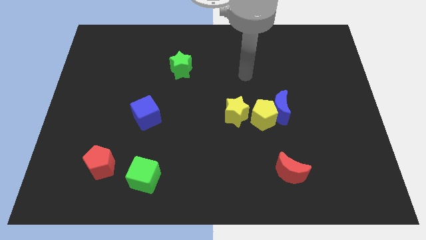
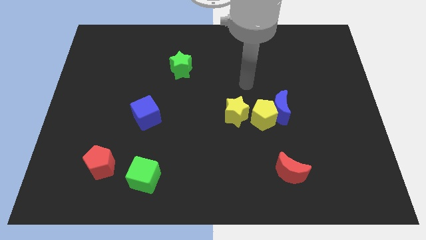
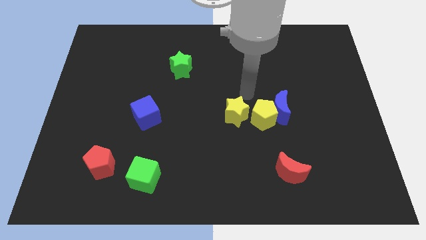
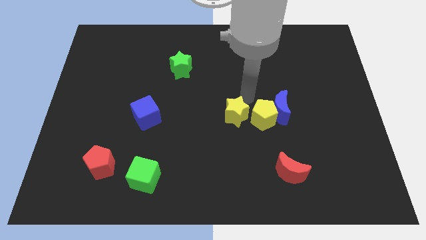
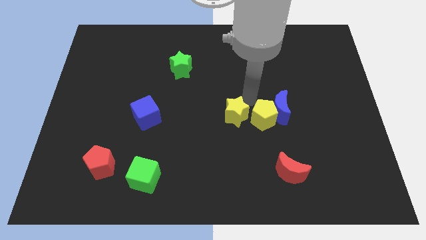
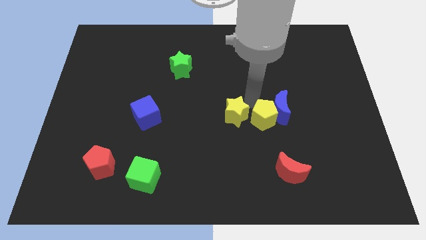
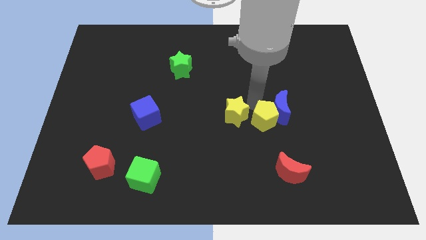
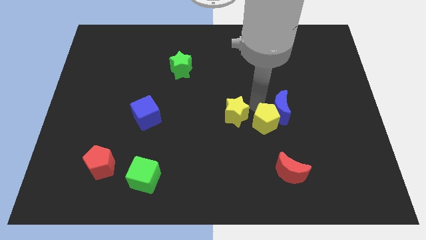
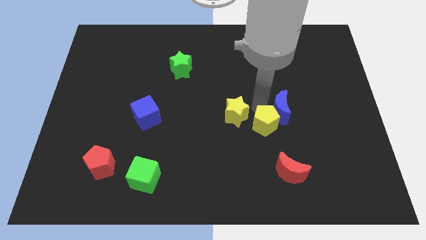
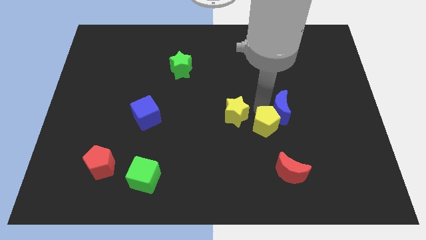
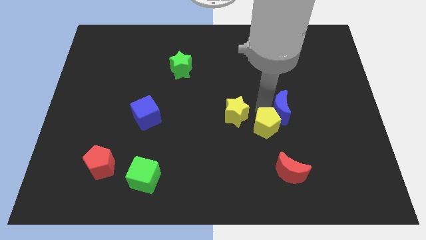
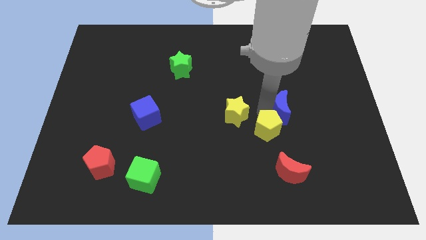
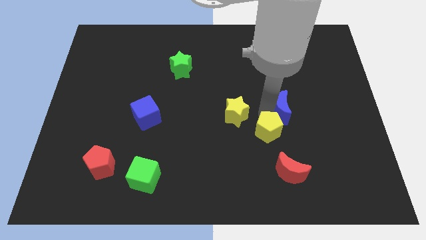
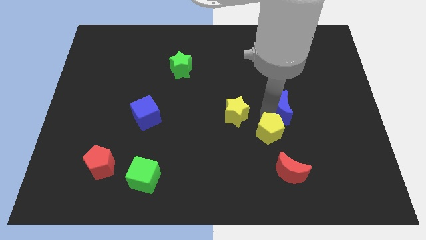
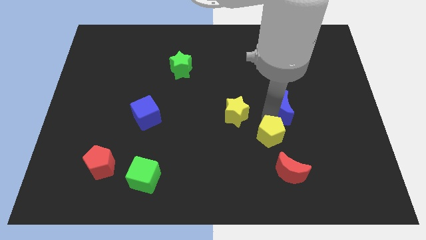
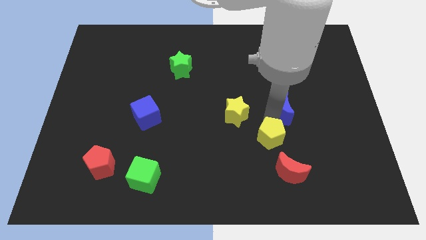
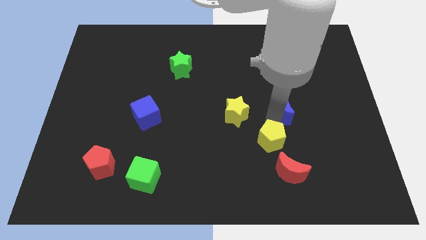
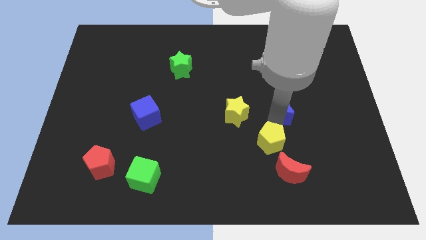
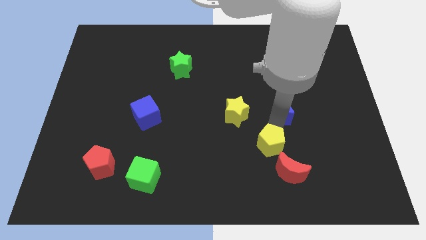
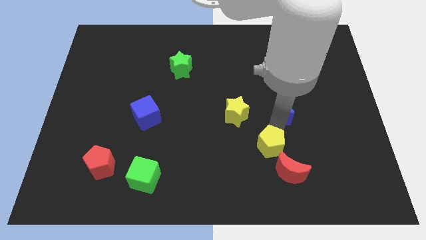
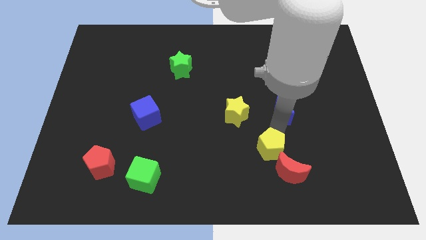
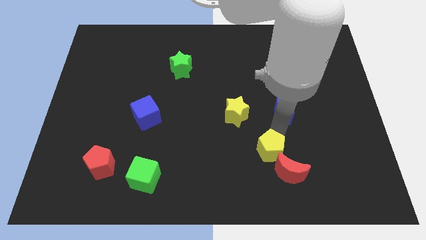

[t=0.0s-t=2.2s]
move the yellow pentagon away from the blue moon and yellow star

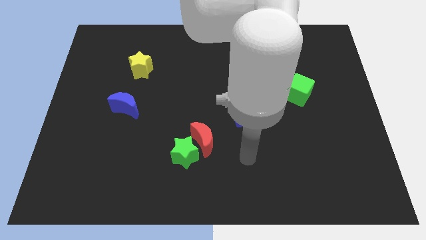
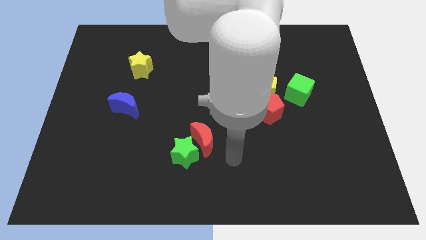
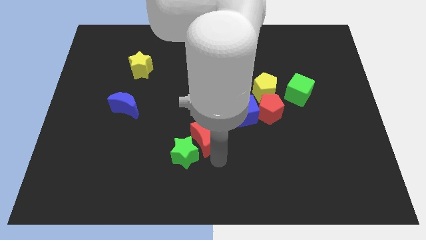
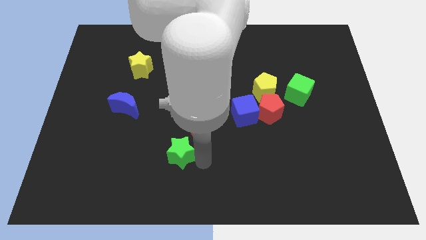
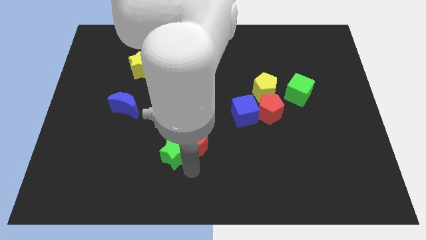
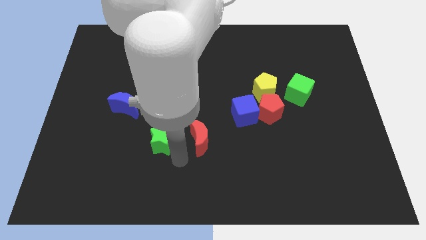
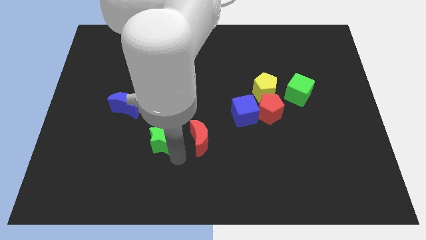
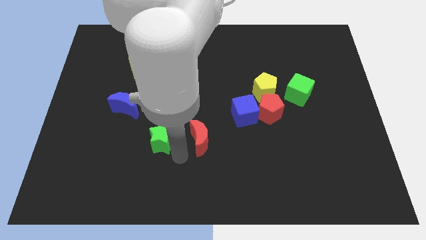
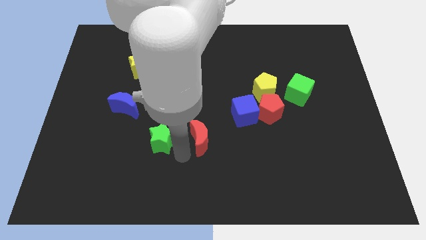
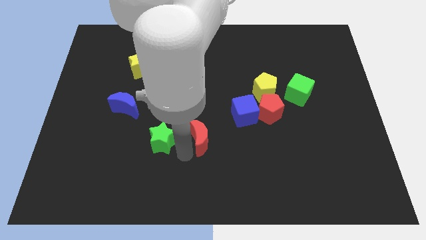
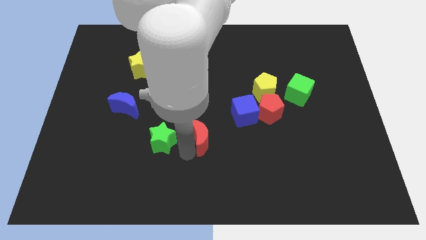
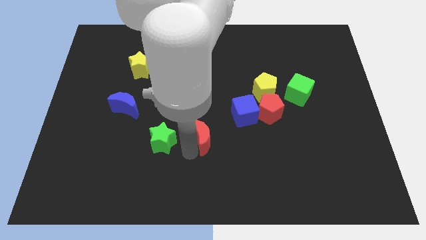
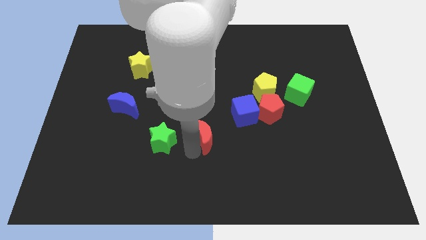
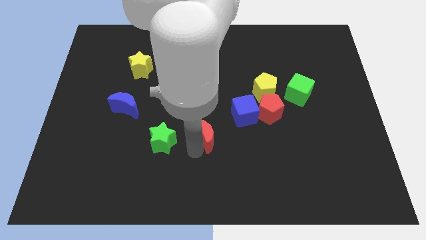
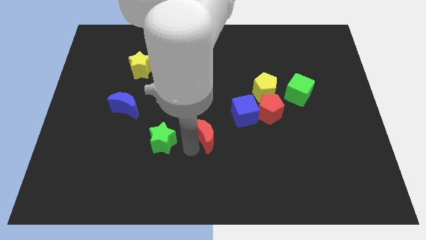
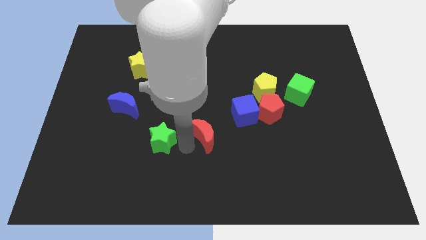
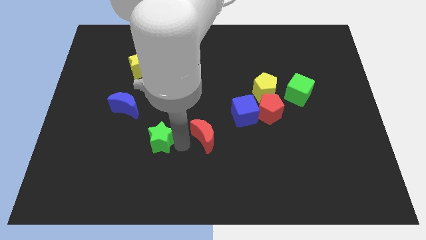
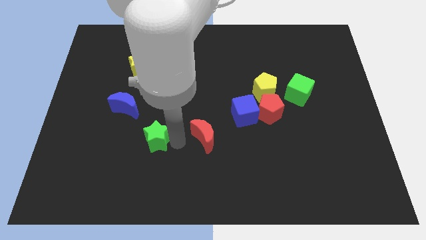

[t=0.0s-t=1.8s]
separate the red moon from the green star

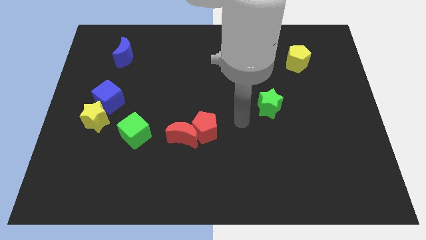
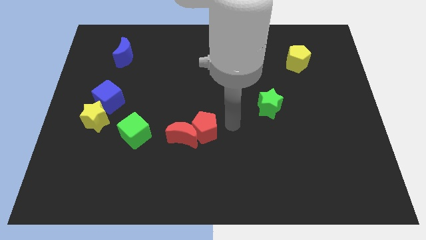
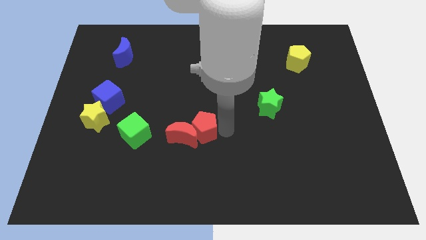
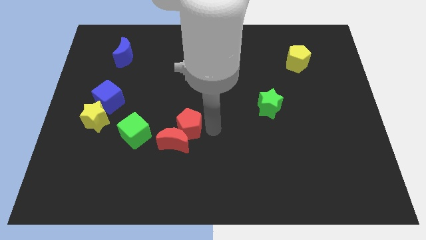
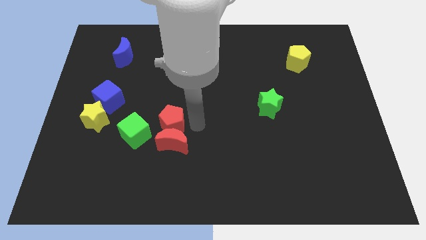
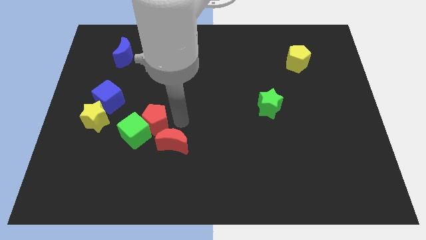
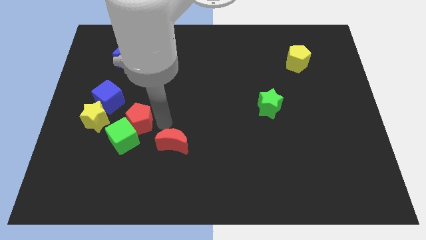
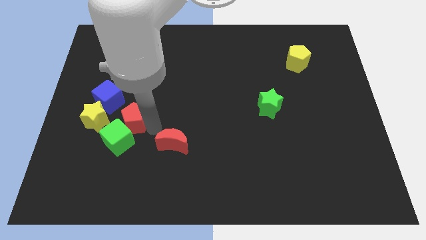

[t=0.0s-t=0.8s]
separate the red moon from the red pentagon

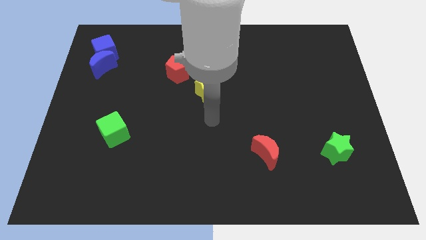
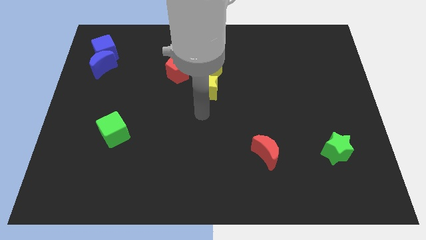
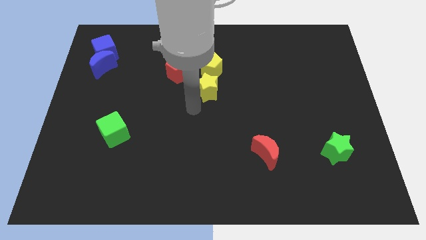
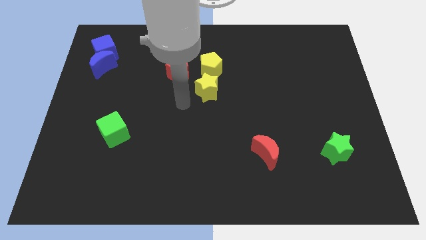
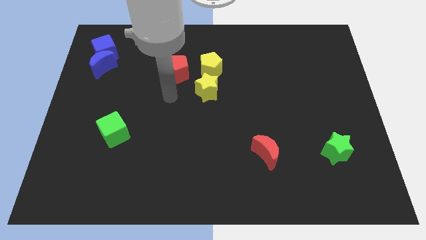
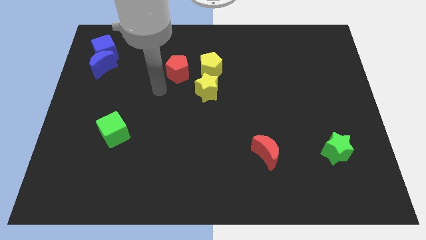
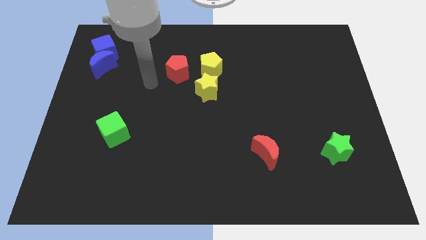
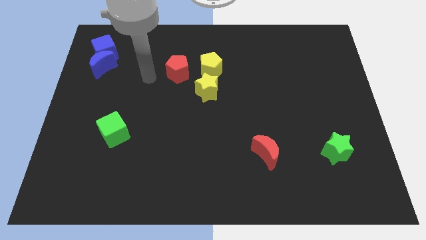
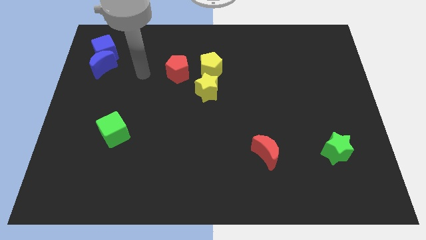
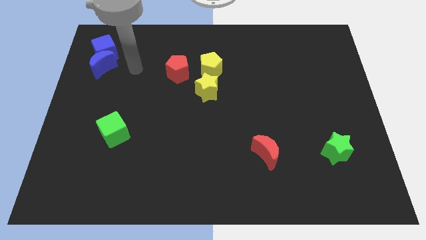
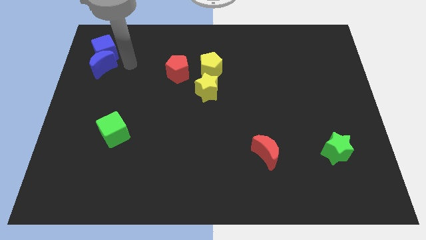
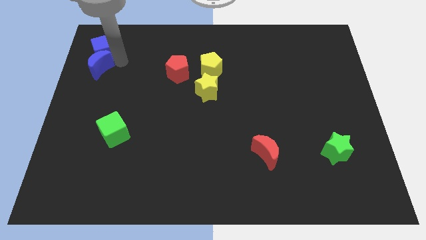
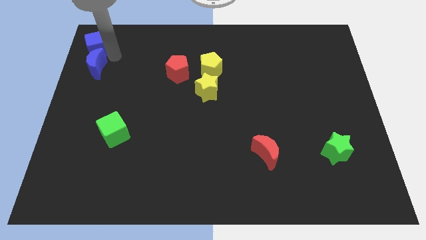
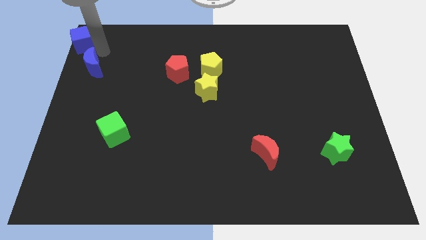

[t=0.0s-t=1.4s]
separate the blue moon from the blue cube

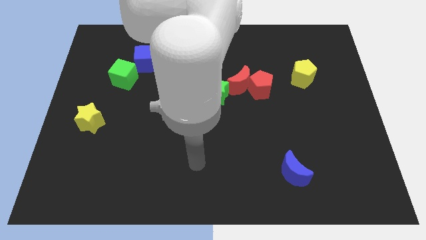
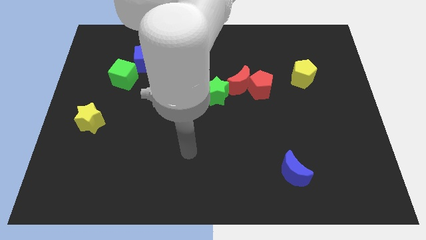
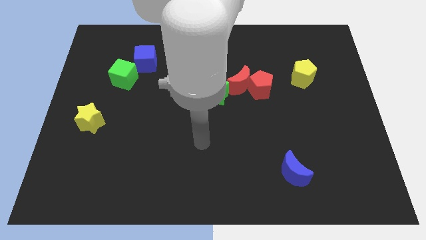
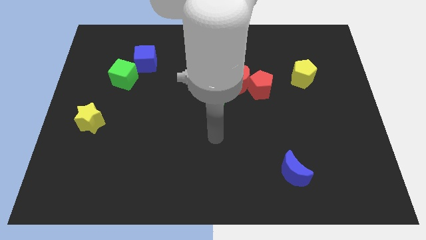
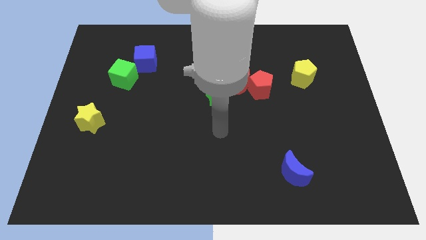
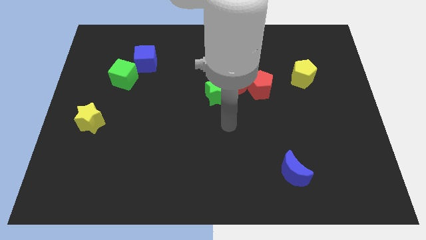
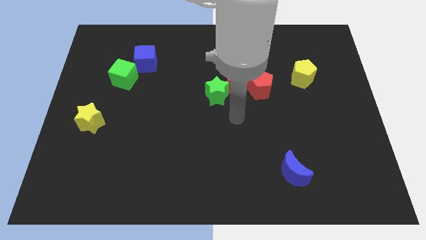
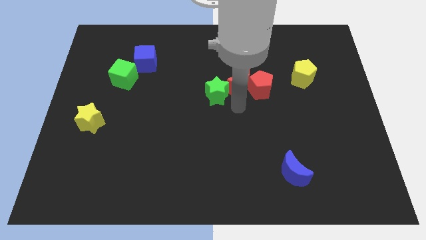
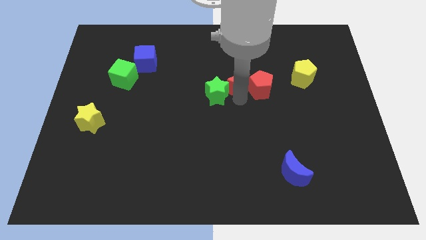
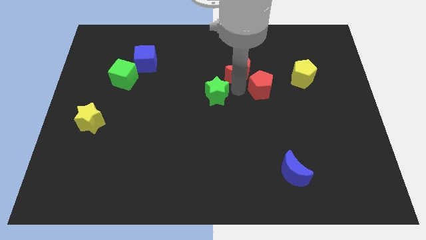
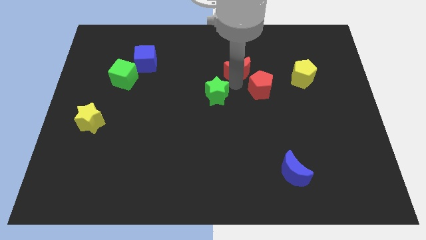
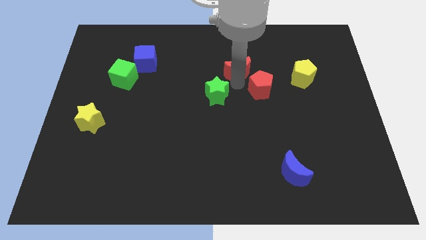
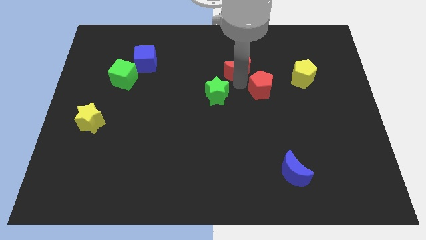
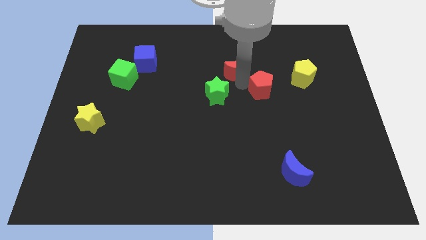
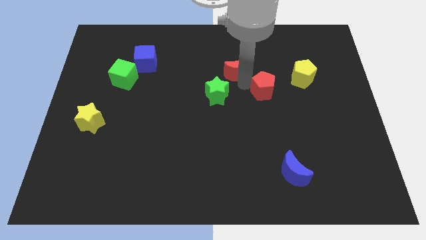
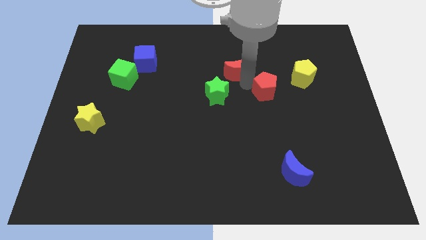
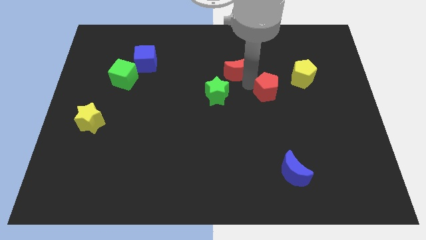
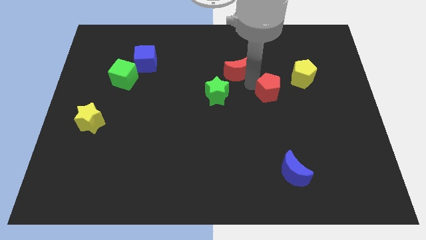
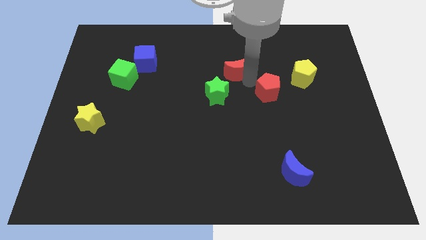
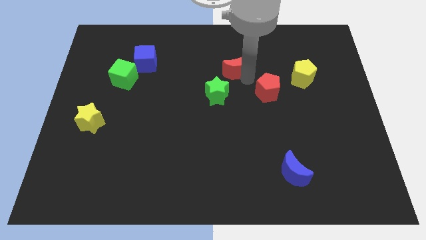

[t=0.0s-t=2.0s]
pull the red pentagon apart from the red moon

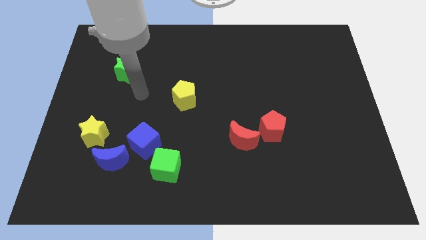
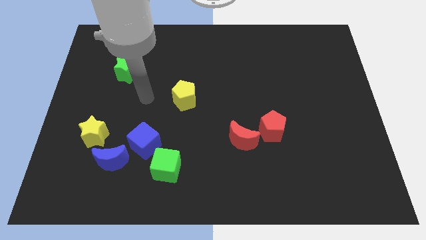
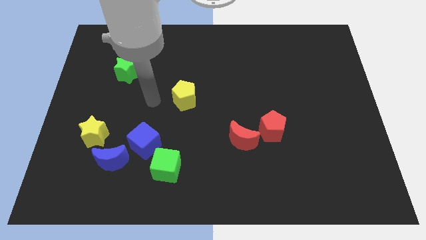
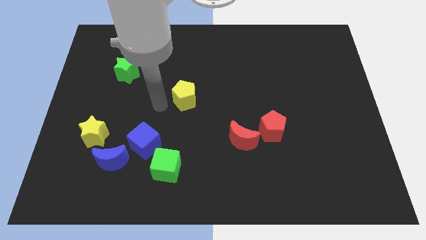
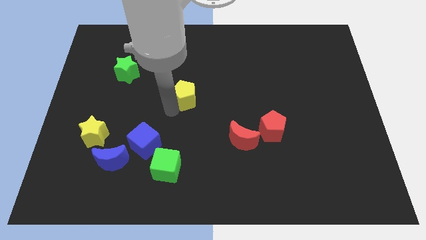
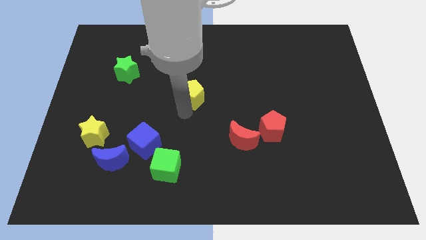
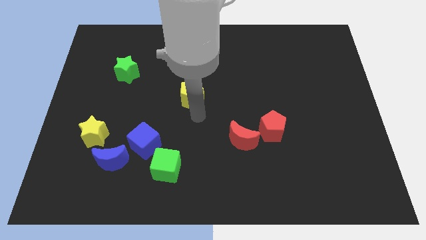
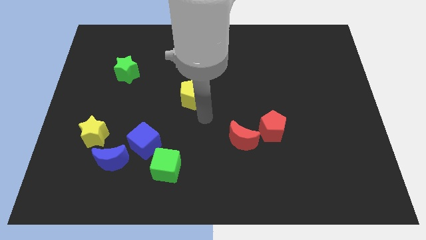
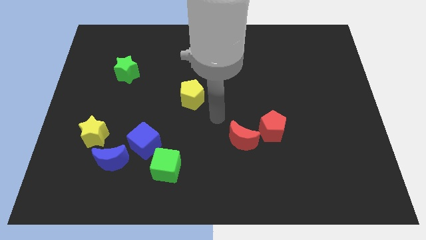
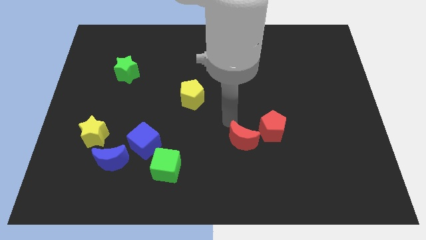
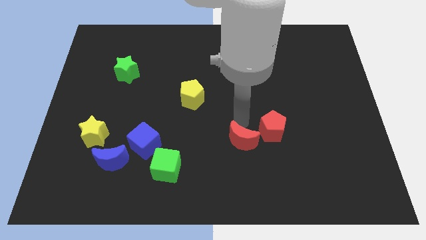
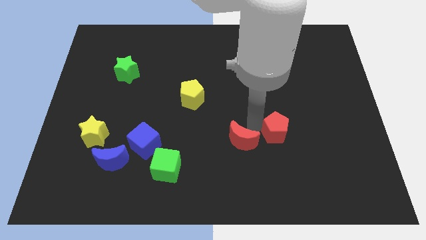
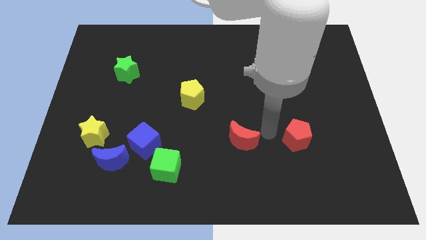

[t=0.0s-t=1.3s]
pull the red moon apart from the red pentagon
